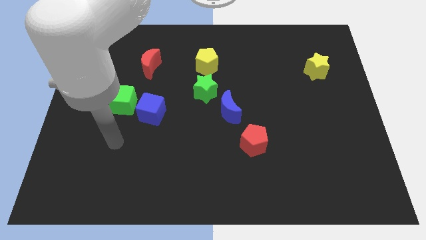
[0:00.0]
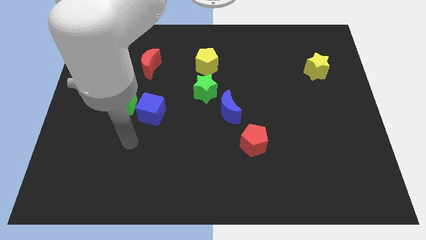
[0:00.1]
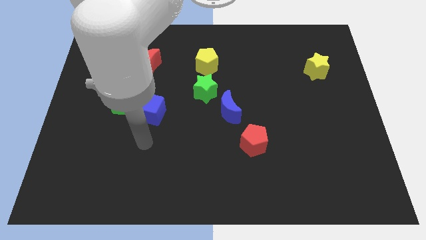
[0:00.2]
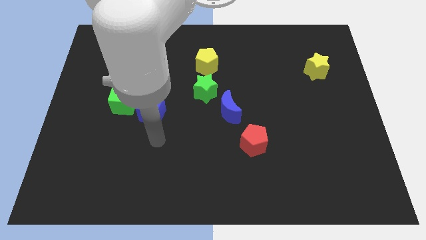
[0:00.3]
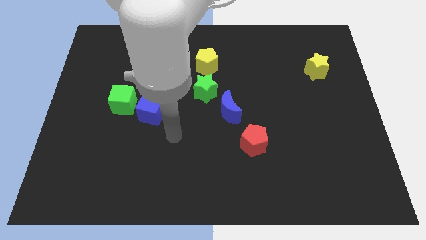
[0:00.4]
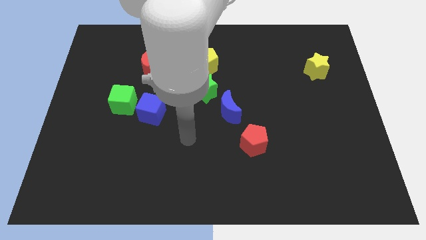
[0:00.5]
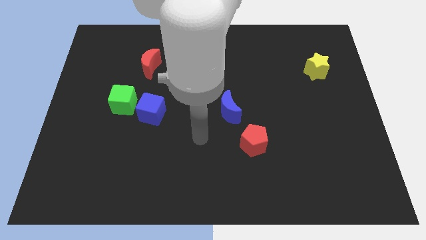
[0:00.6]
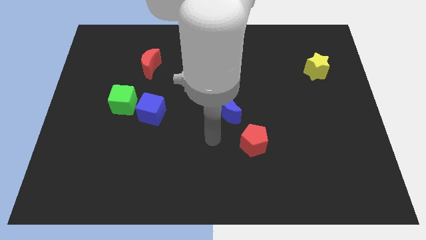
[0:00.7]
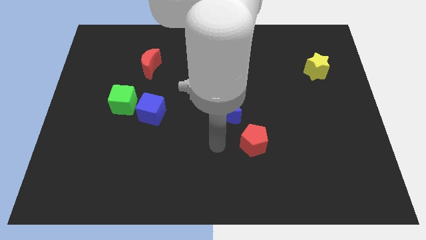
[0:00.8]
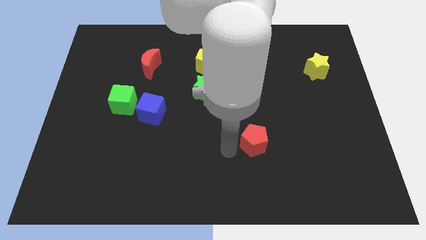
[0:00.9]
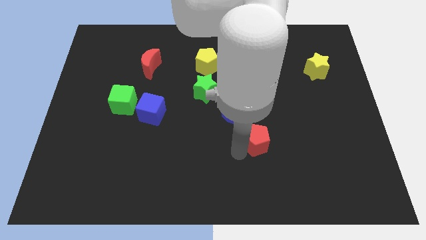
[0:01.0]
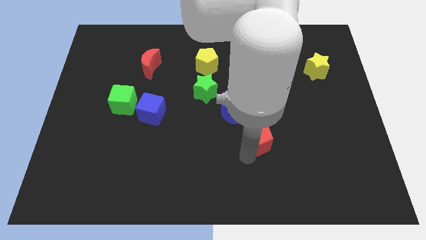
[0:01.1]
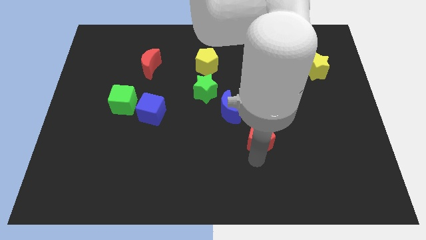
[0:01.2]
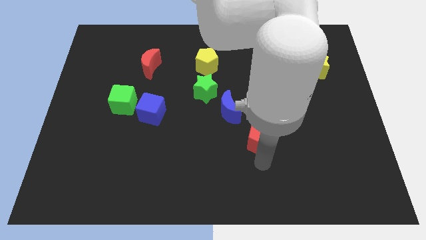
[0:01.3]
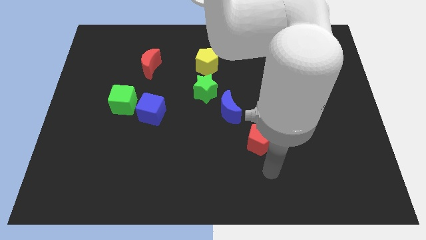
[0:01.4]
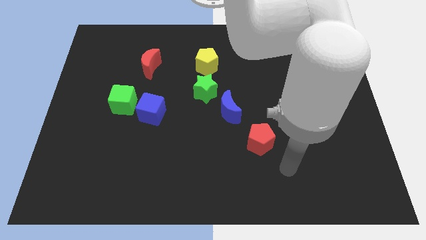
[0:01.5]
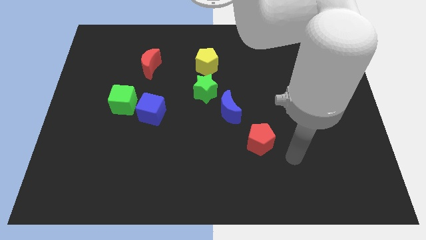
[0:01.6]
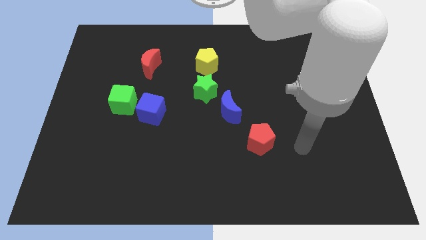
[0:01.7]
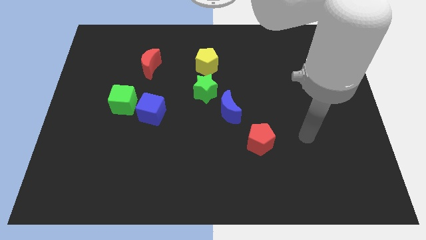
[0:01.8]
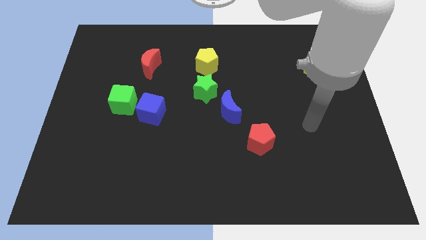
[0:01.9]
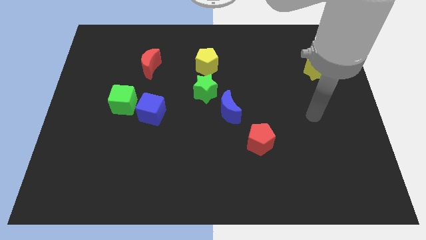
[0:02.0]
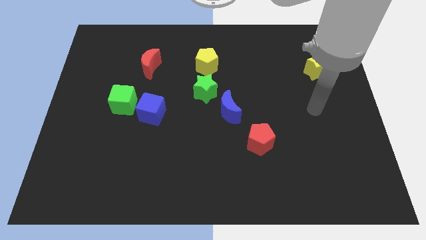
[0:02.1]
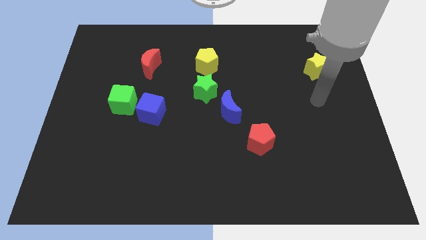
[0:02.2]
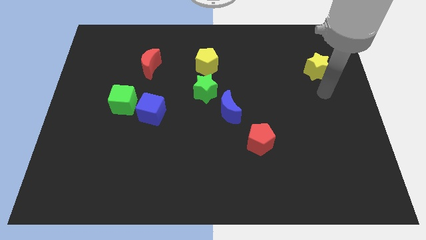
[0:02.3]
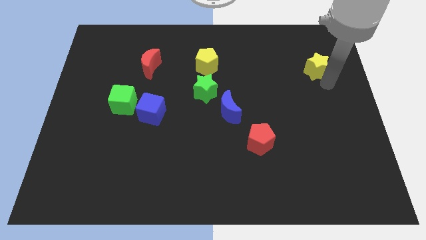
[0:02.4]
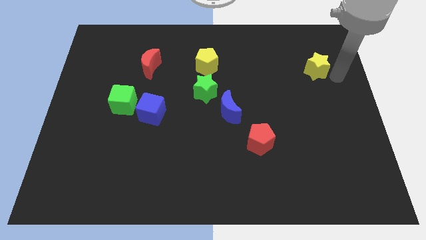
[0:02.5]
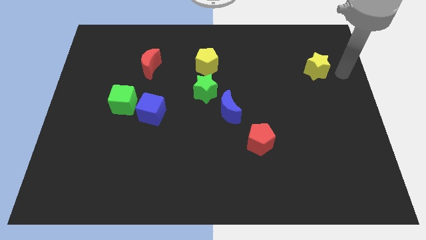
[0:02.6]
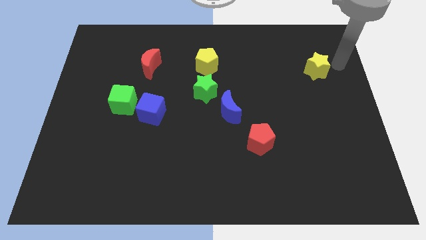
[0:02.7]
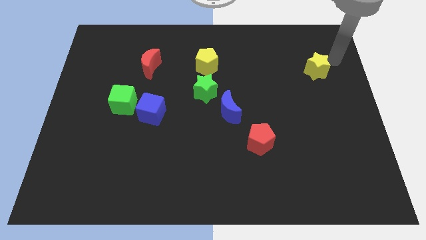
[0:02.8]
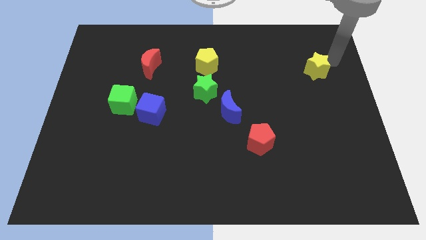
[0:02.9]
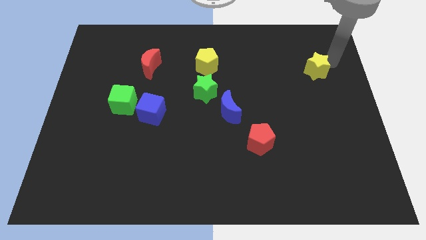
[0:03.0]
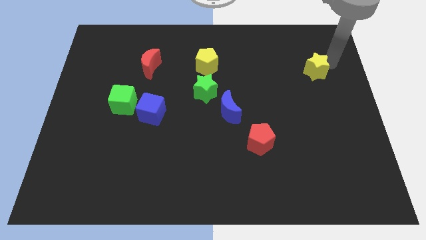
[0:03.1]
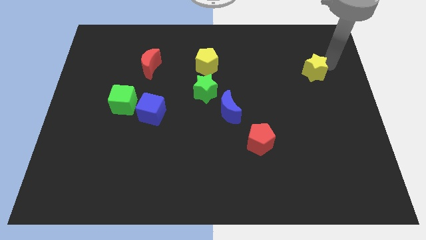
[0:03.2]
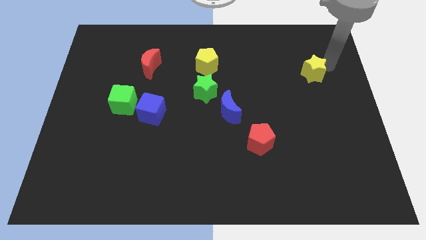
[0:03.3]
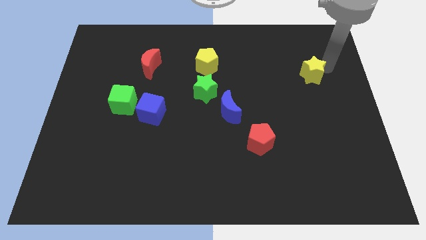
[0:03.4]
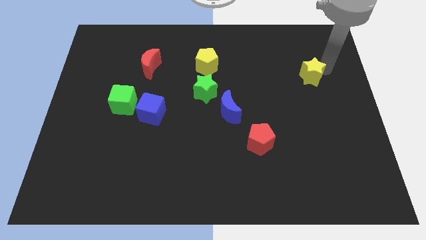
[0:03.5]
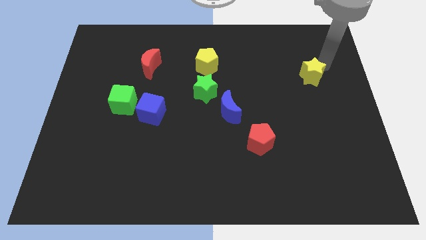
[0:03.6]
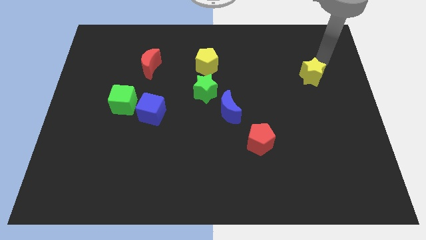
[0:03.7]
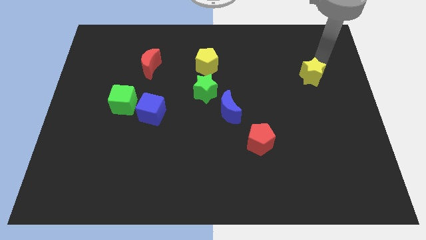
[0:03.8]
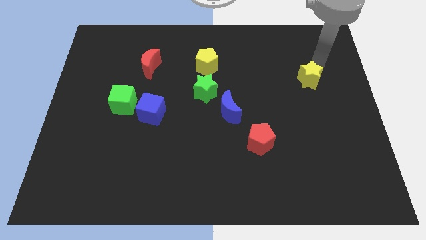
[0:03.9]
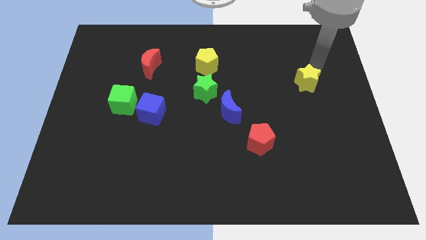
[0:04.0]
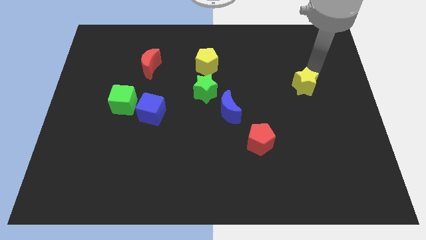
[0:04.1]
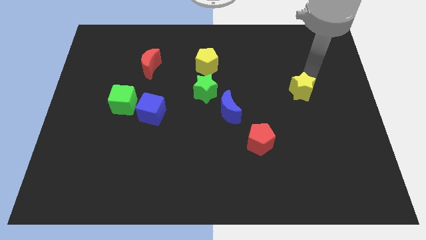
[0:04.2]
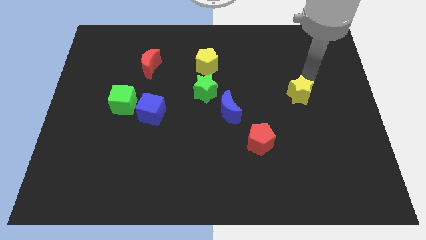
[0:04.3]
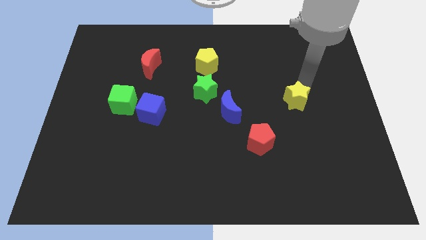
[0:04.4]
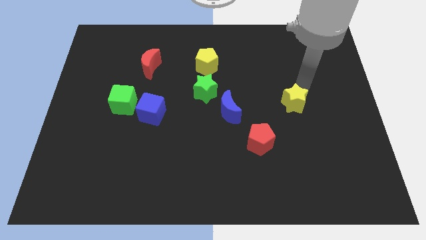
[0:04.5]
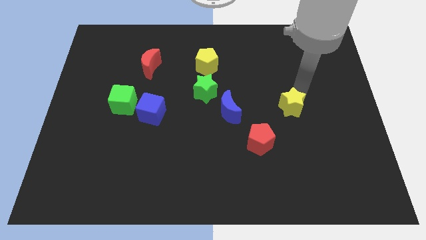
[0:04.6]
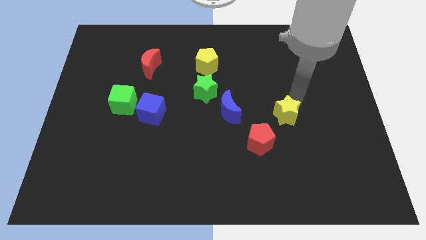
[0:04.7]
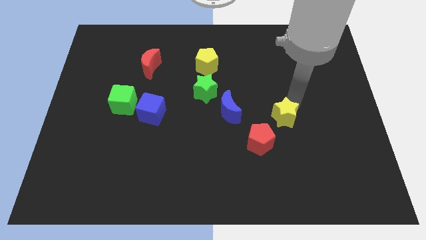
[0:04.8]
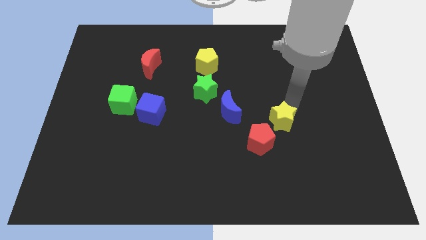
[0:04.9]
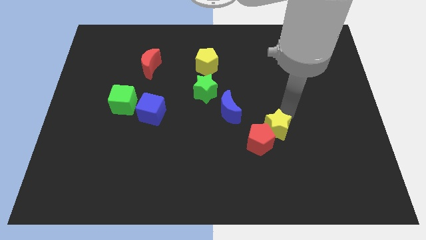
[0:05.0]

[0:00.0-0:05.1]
put the yellow star to the red pentagon

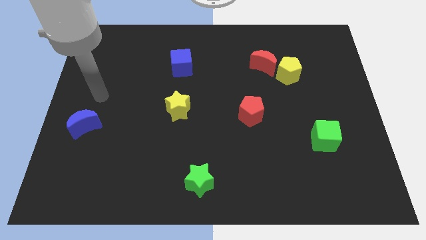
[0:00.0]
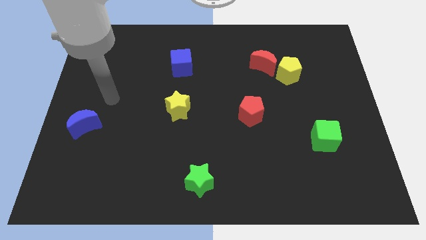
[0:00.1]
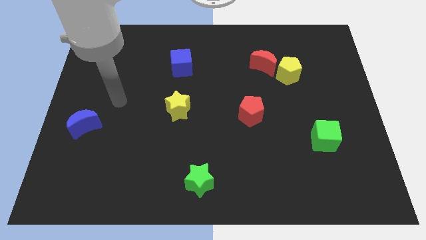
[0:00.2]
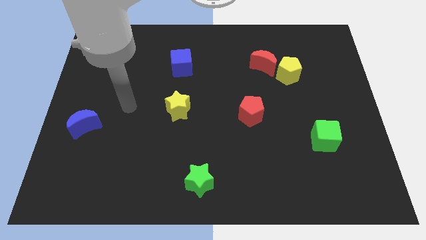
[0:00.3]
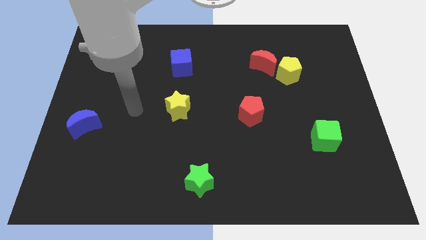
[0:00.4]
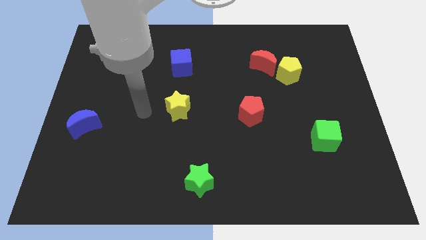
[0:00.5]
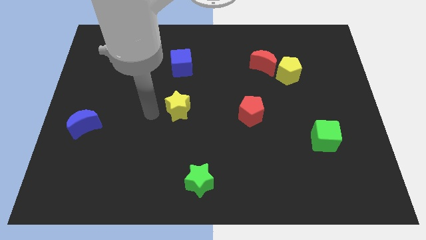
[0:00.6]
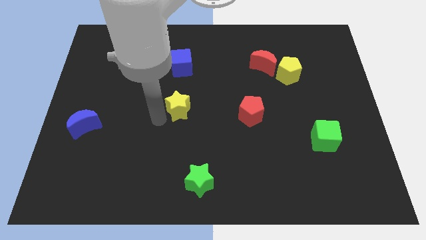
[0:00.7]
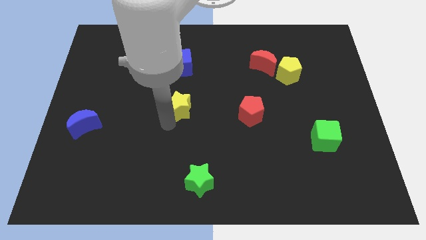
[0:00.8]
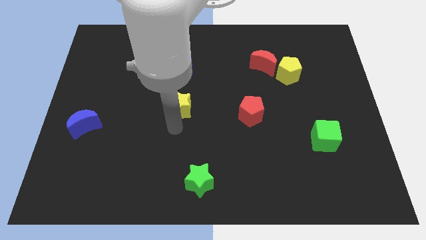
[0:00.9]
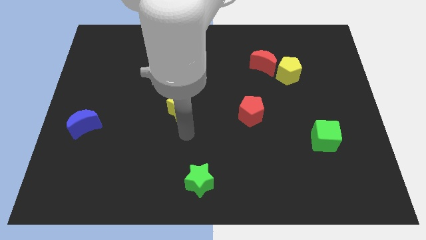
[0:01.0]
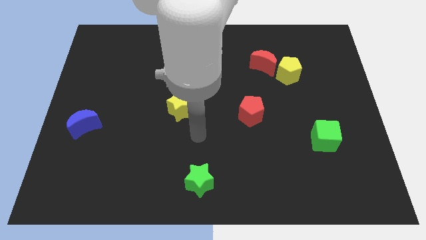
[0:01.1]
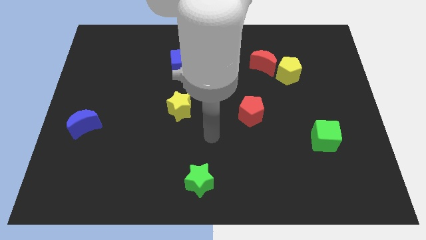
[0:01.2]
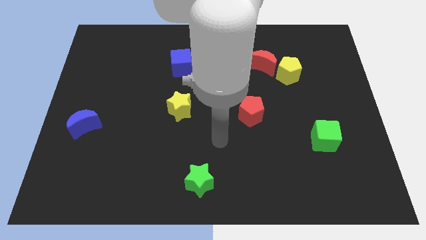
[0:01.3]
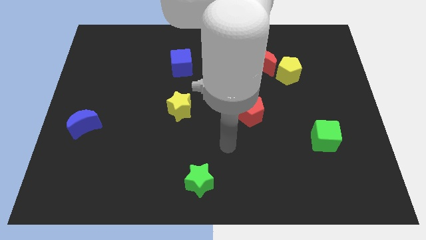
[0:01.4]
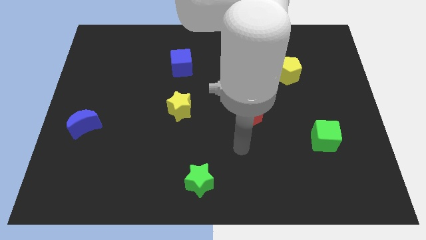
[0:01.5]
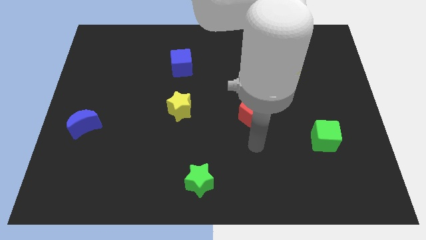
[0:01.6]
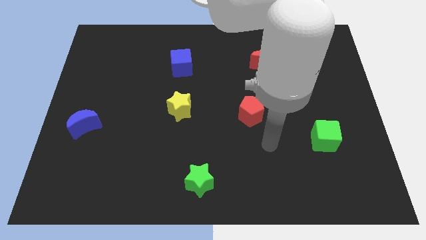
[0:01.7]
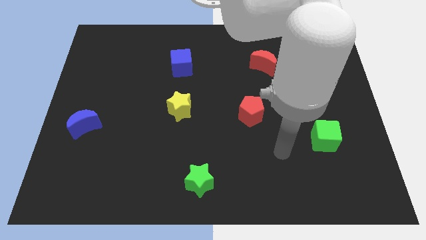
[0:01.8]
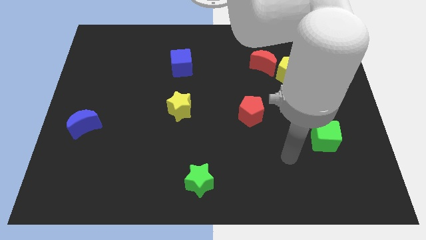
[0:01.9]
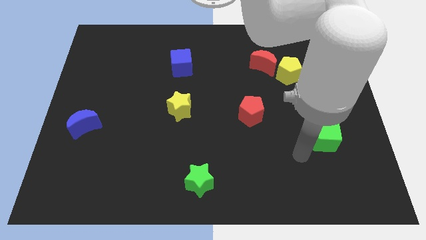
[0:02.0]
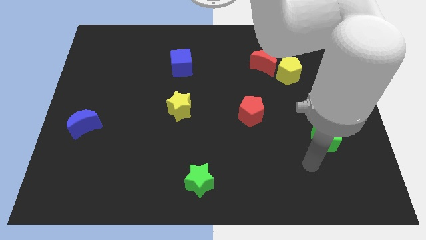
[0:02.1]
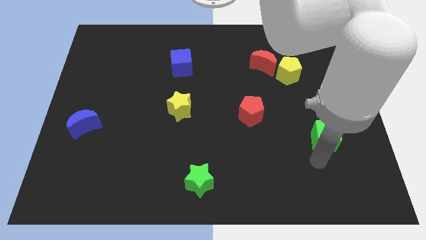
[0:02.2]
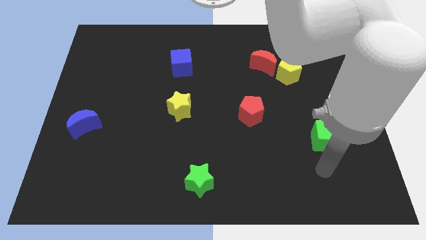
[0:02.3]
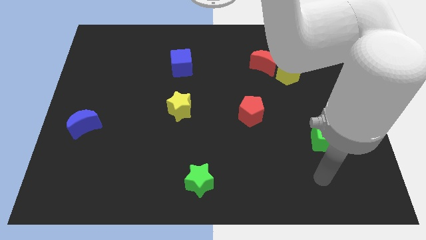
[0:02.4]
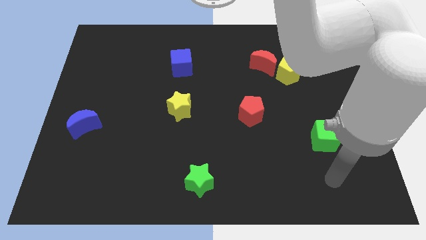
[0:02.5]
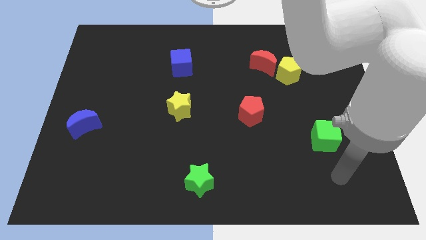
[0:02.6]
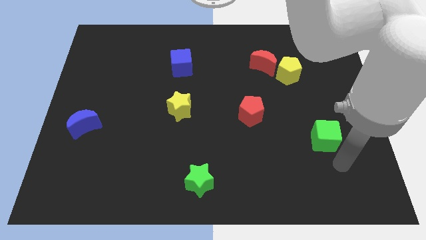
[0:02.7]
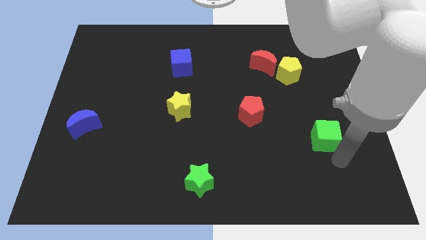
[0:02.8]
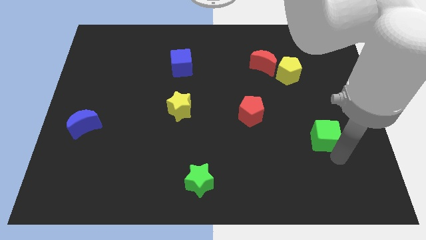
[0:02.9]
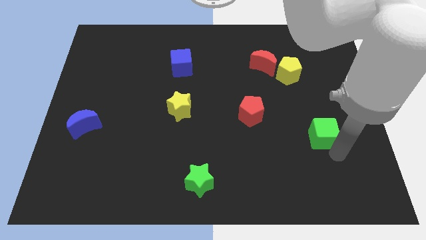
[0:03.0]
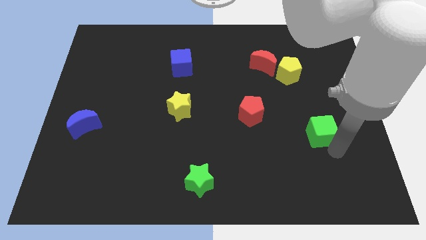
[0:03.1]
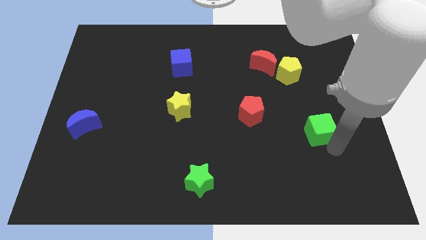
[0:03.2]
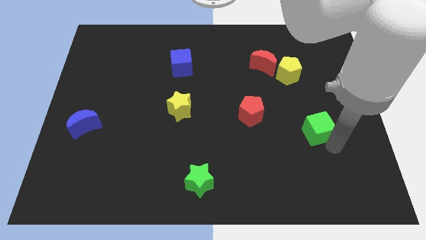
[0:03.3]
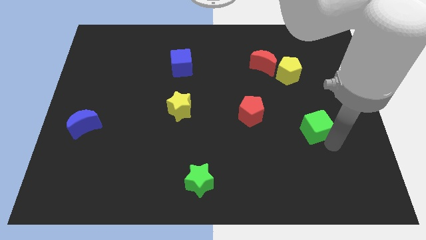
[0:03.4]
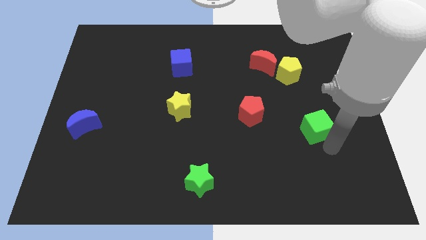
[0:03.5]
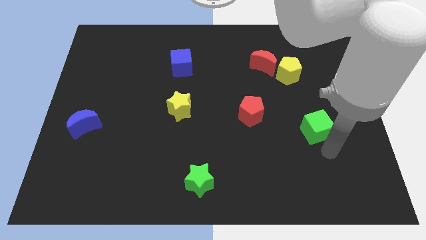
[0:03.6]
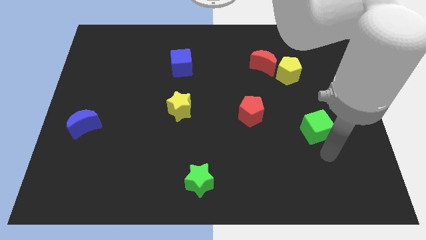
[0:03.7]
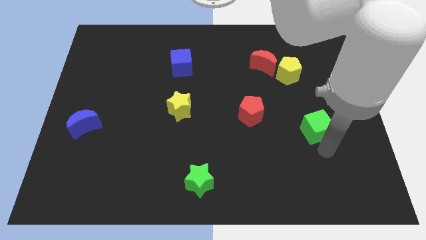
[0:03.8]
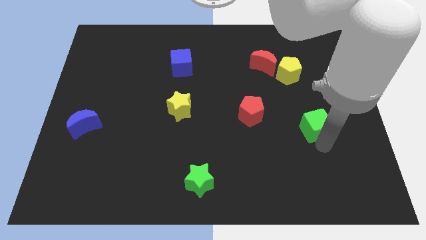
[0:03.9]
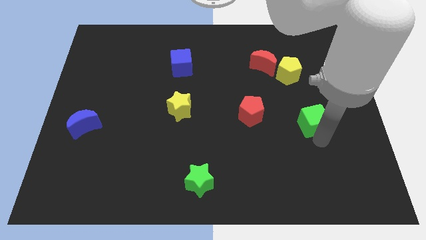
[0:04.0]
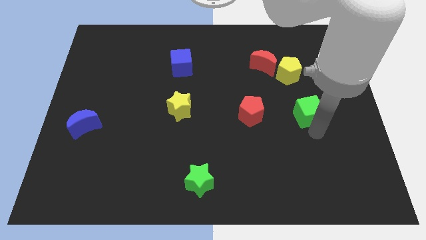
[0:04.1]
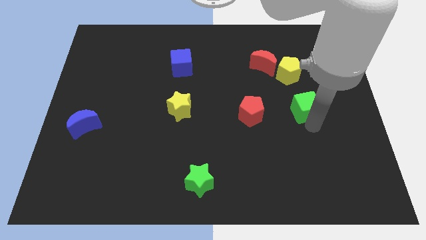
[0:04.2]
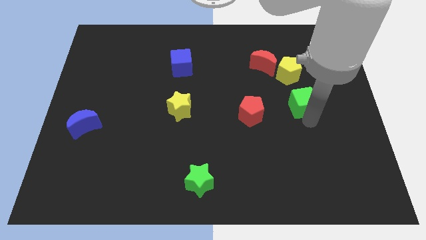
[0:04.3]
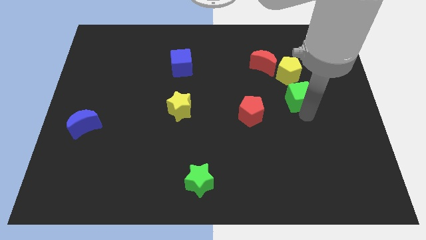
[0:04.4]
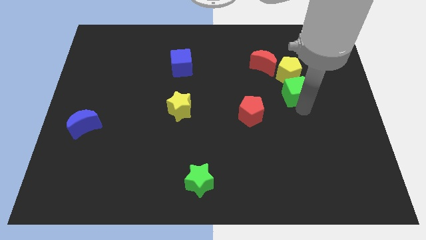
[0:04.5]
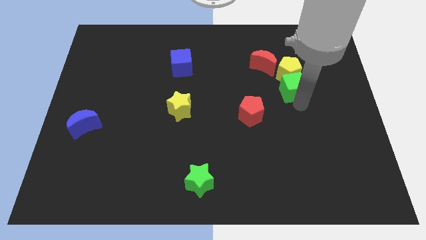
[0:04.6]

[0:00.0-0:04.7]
slide the green cube towards the yellow pentagon
